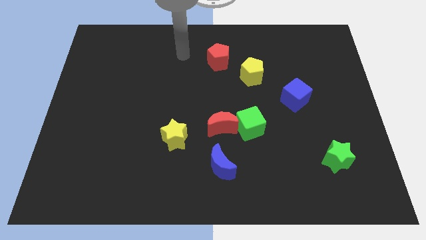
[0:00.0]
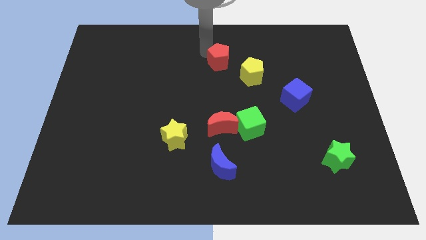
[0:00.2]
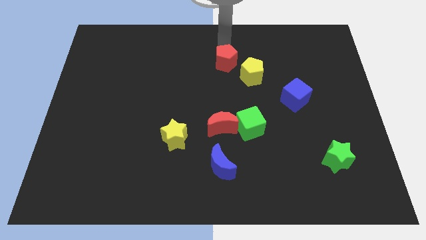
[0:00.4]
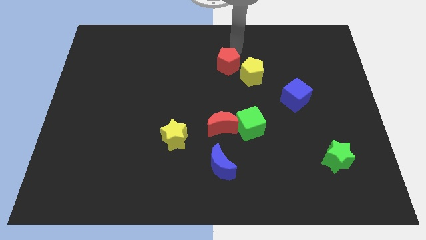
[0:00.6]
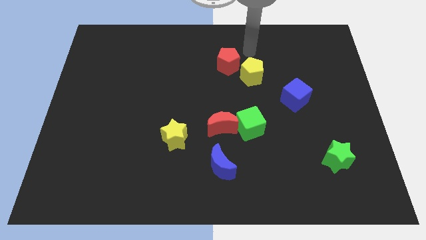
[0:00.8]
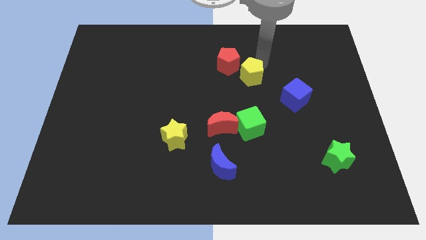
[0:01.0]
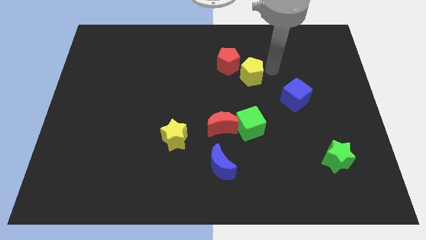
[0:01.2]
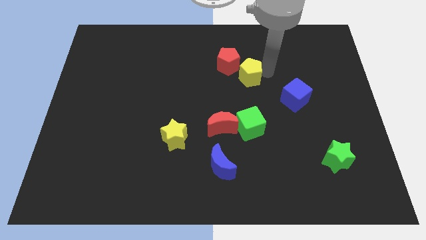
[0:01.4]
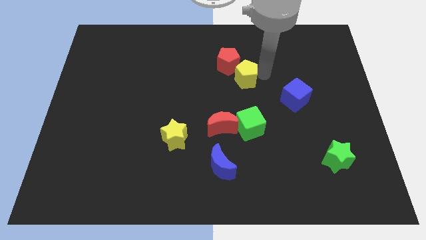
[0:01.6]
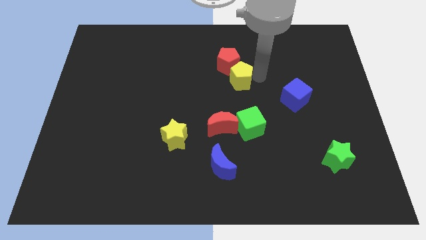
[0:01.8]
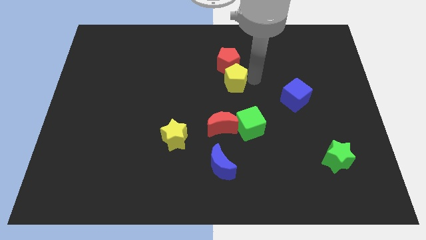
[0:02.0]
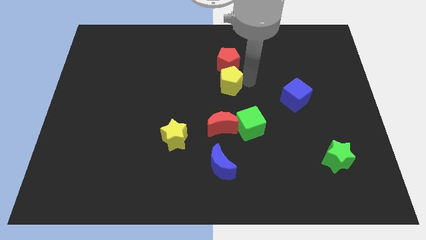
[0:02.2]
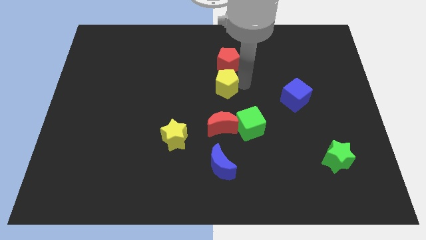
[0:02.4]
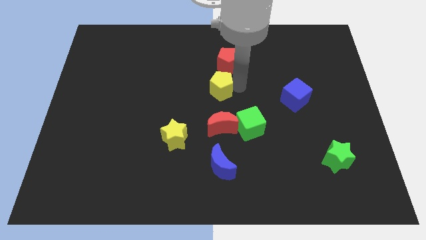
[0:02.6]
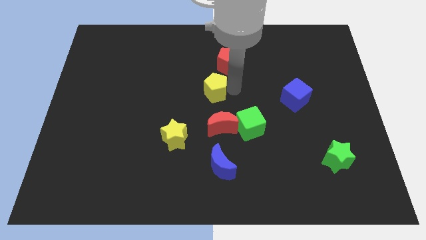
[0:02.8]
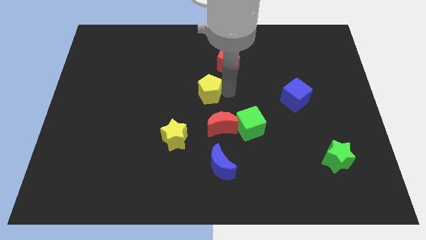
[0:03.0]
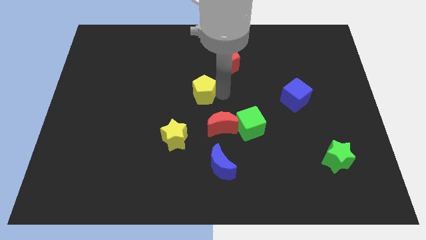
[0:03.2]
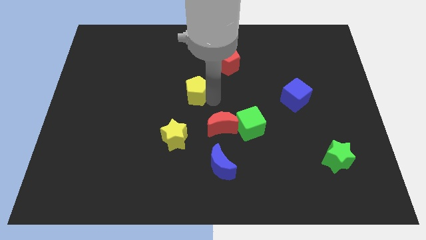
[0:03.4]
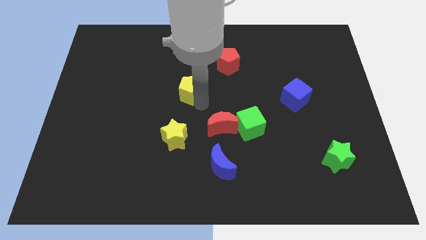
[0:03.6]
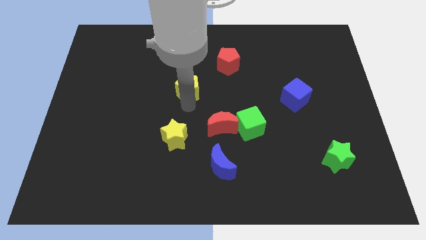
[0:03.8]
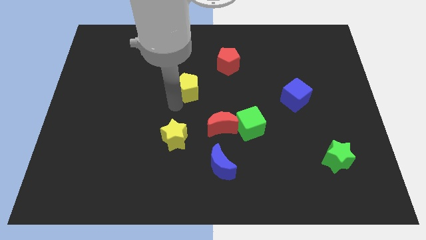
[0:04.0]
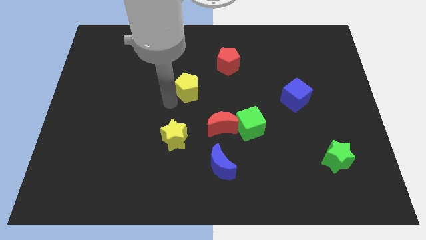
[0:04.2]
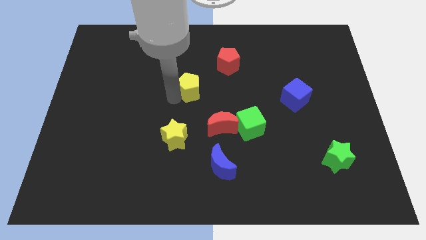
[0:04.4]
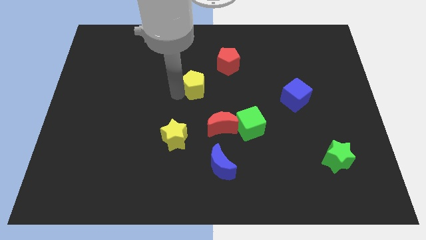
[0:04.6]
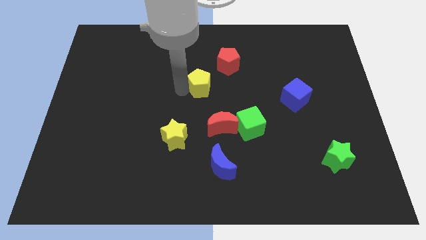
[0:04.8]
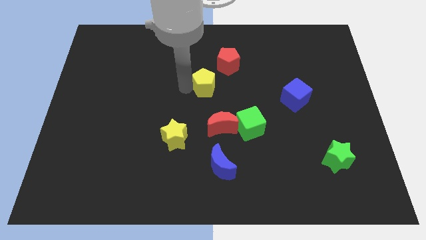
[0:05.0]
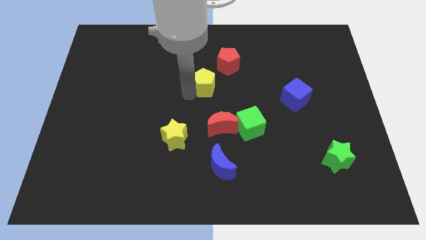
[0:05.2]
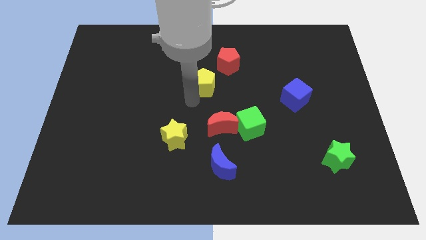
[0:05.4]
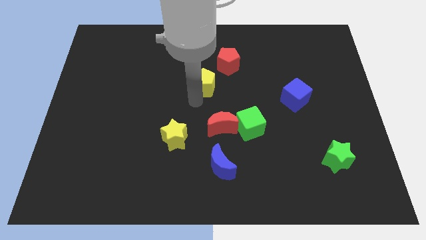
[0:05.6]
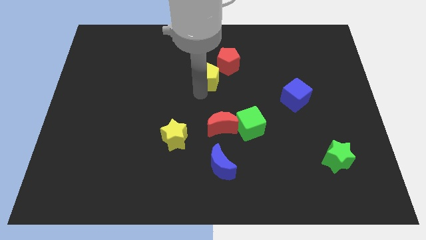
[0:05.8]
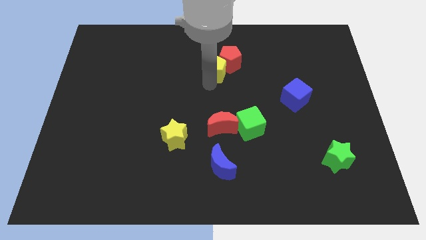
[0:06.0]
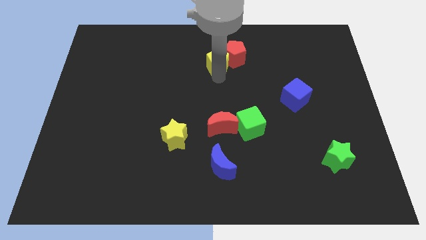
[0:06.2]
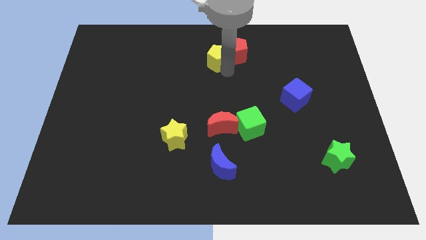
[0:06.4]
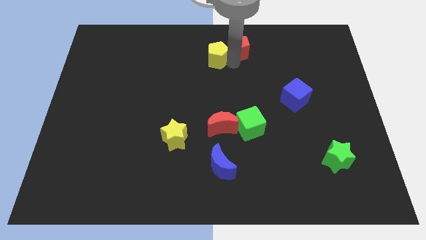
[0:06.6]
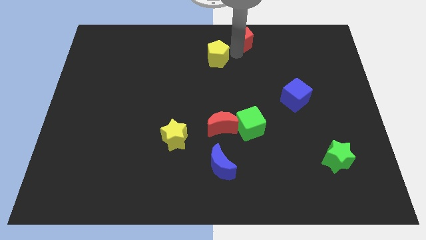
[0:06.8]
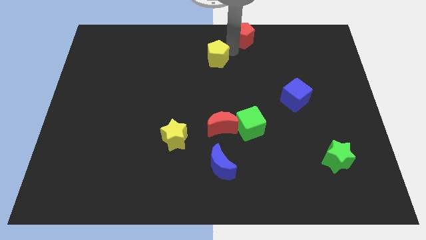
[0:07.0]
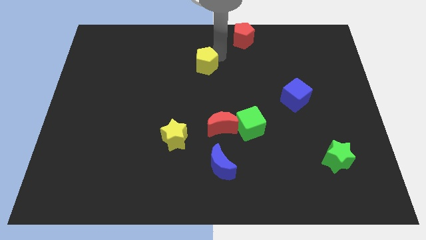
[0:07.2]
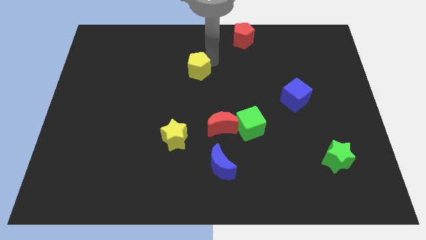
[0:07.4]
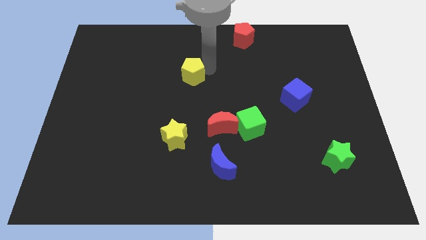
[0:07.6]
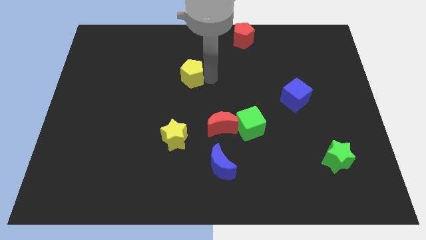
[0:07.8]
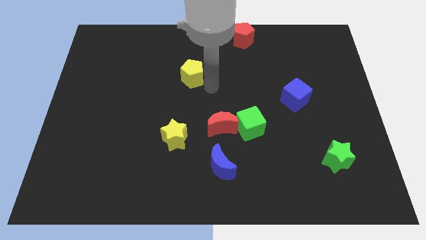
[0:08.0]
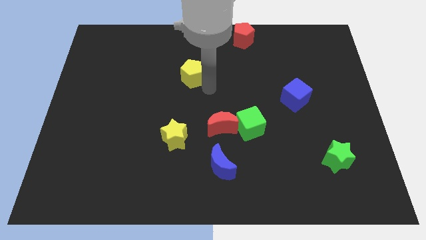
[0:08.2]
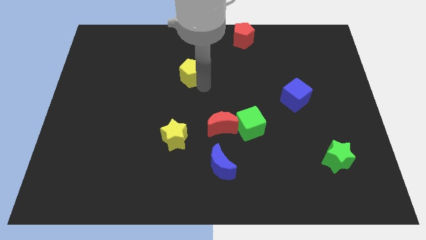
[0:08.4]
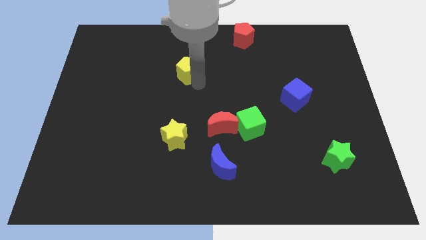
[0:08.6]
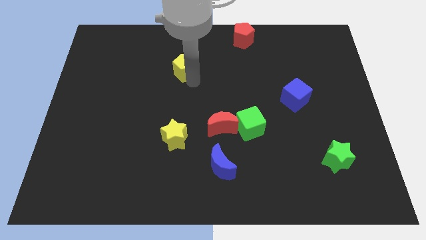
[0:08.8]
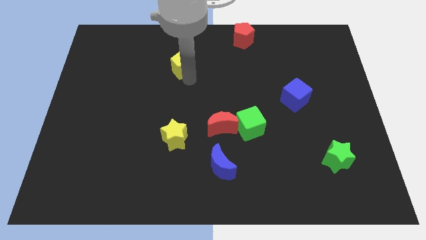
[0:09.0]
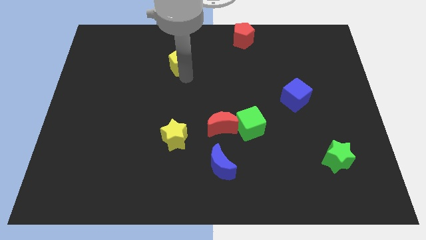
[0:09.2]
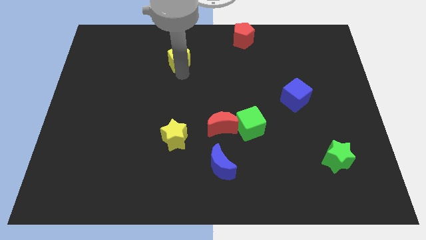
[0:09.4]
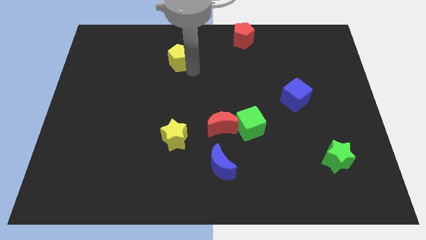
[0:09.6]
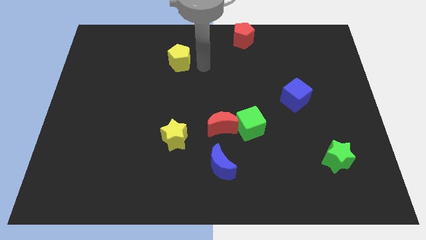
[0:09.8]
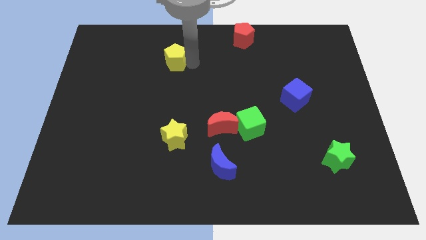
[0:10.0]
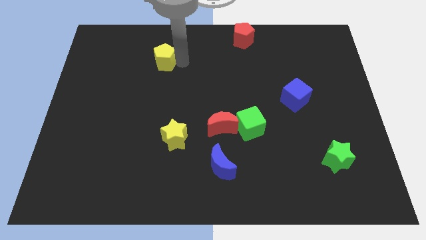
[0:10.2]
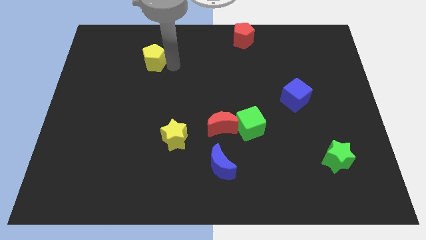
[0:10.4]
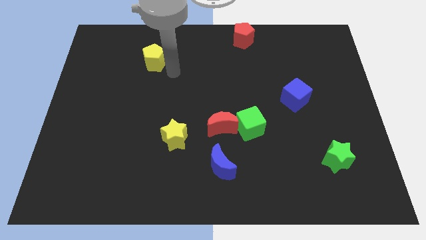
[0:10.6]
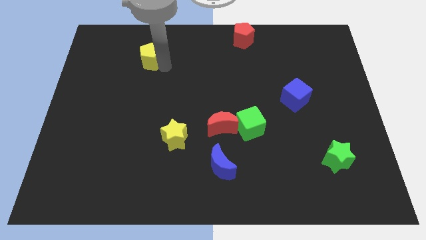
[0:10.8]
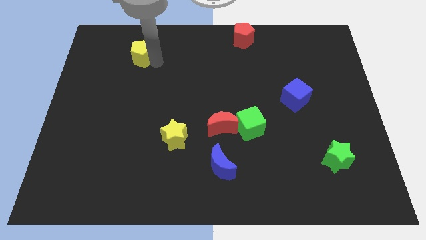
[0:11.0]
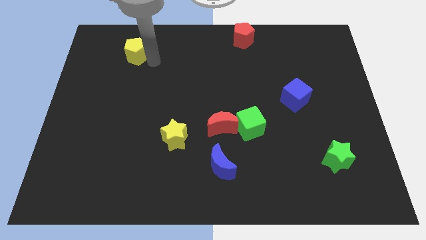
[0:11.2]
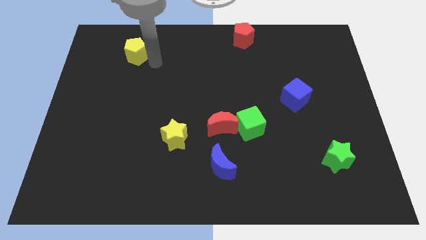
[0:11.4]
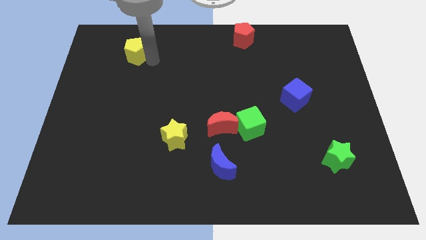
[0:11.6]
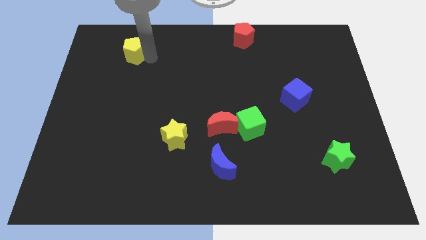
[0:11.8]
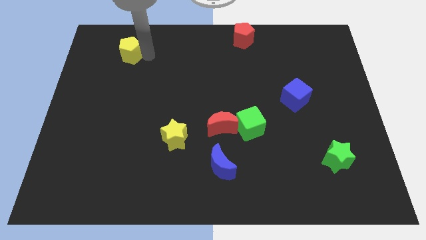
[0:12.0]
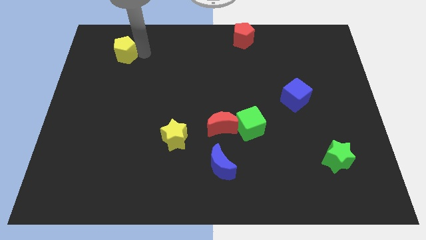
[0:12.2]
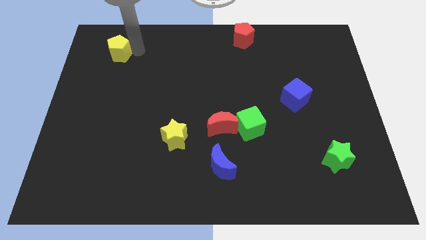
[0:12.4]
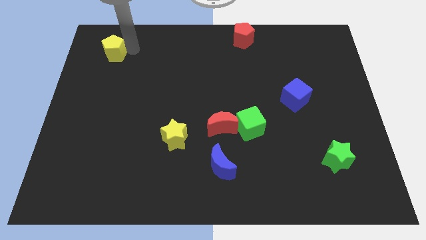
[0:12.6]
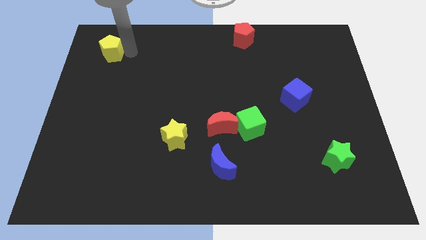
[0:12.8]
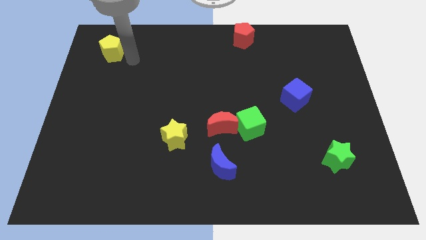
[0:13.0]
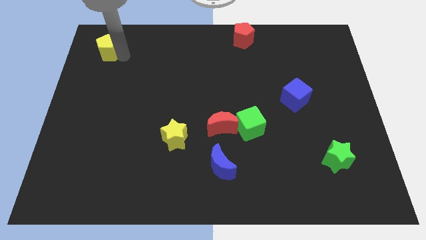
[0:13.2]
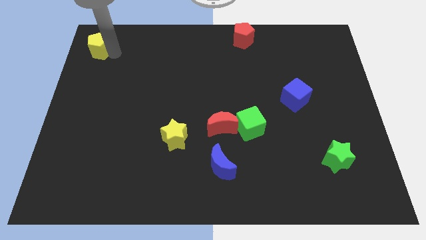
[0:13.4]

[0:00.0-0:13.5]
move the yellow pentagon to the top left corner

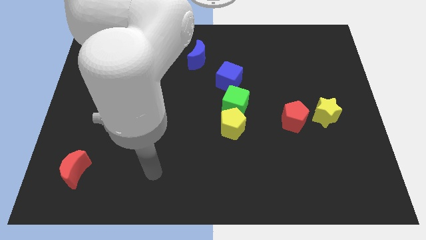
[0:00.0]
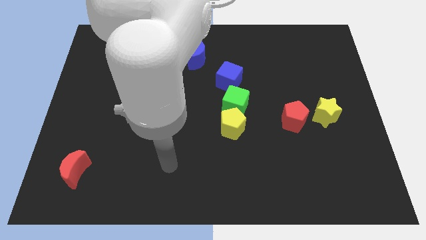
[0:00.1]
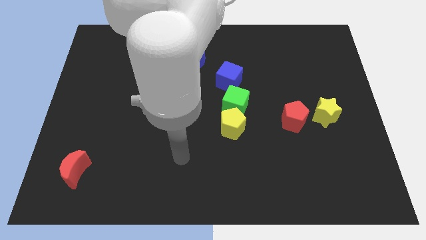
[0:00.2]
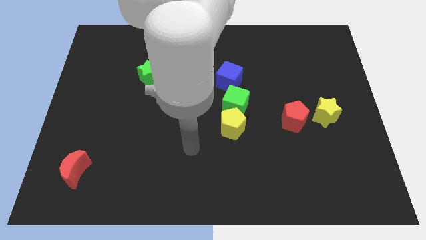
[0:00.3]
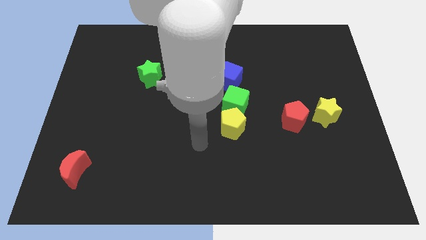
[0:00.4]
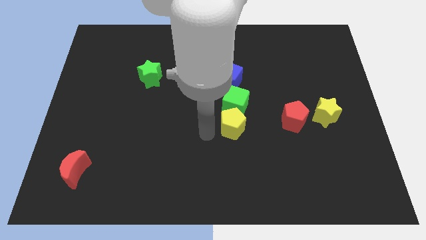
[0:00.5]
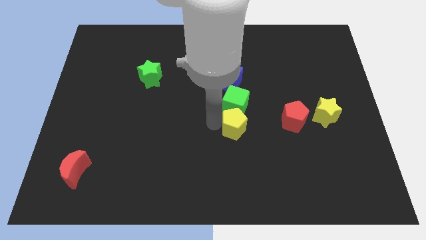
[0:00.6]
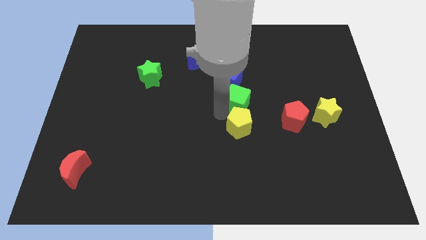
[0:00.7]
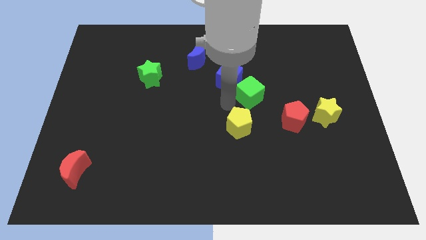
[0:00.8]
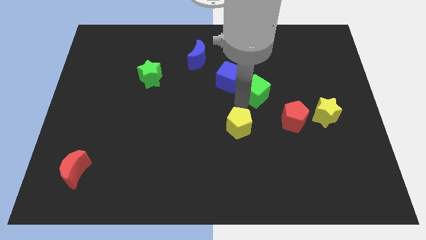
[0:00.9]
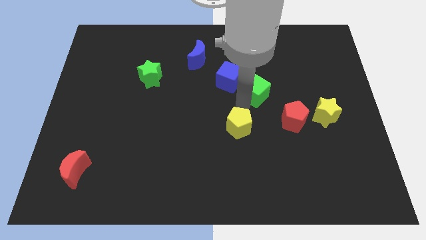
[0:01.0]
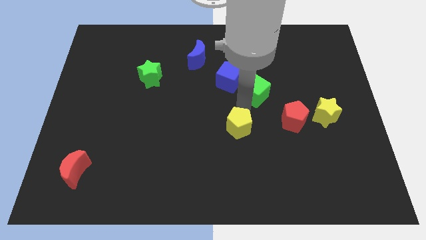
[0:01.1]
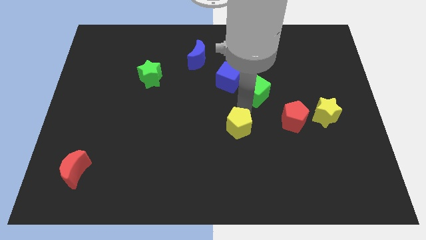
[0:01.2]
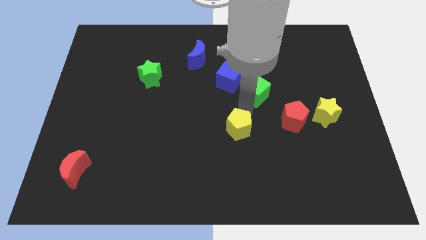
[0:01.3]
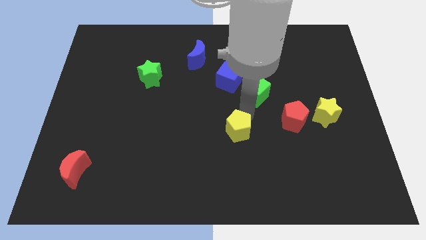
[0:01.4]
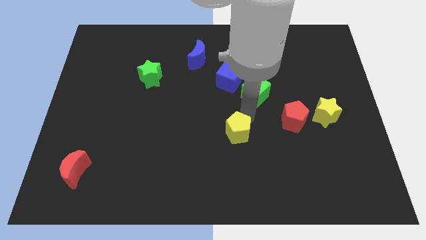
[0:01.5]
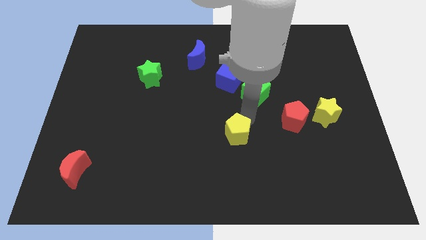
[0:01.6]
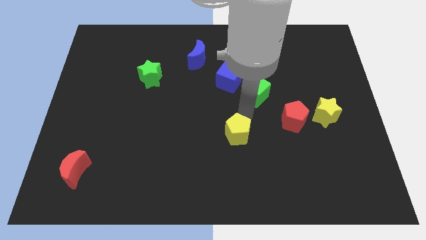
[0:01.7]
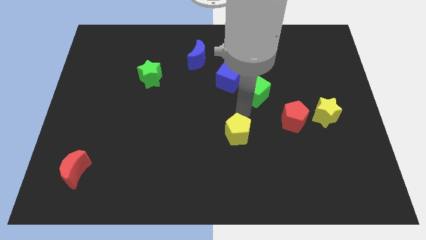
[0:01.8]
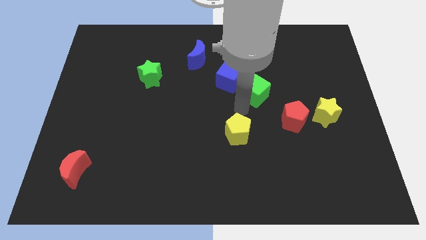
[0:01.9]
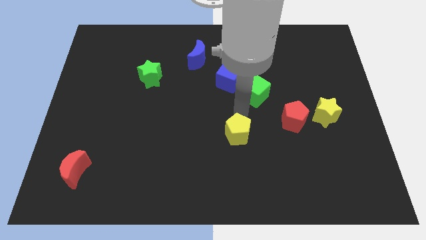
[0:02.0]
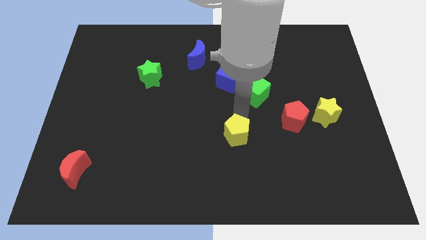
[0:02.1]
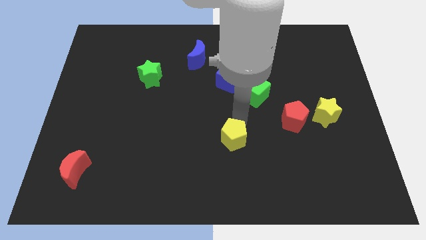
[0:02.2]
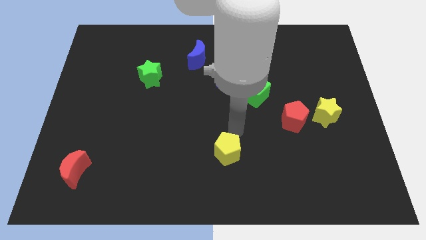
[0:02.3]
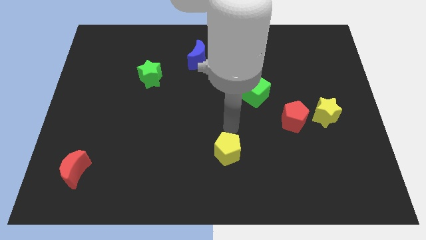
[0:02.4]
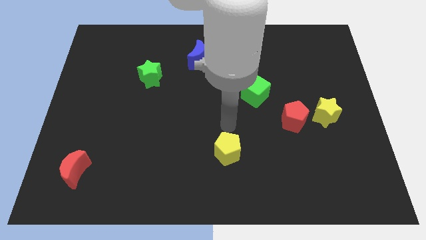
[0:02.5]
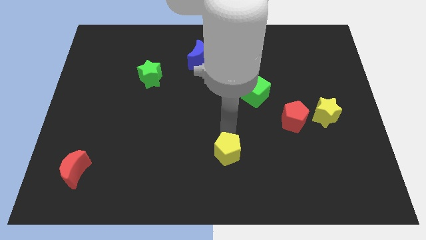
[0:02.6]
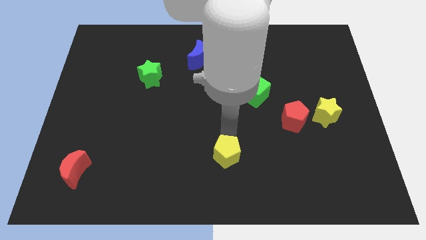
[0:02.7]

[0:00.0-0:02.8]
slide the yellow pentagon to the bottom side
